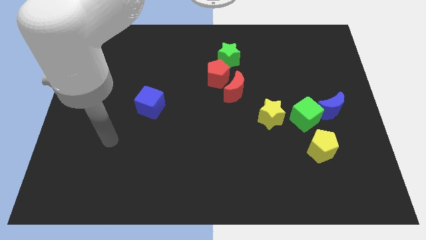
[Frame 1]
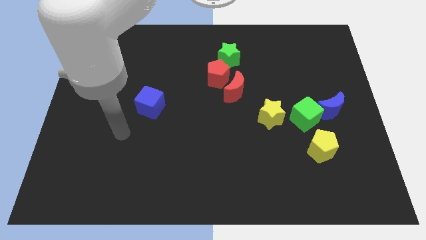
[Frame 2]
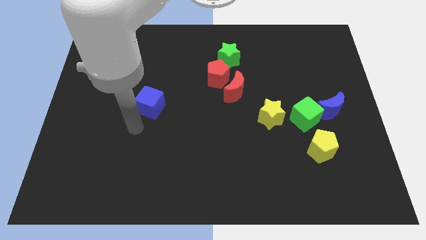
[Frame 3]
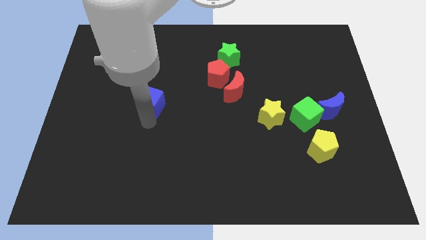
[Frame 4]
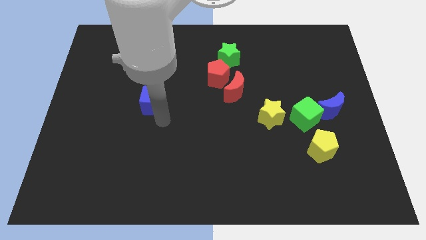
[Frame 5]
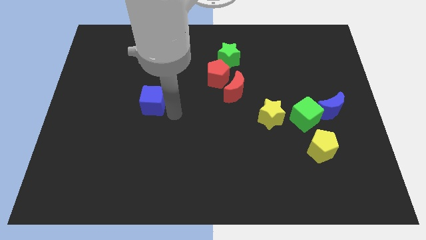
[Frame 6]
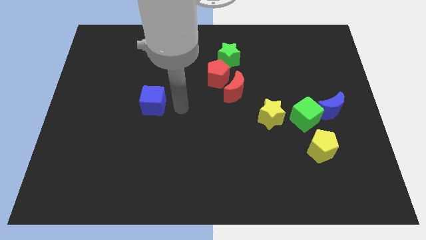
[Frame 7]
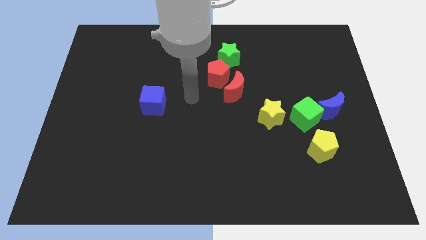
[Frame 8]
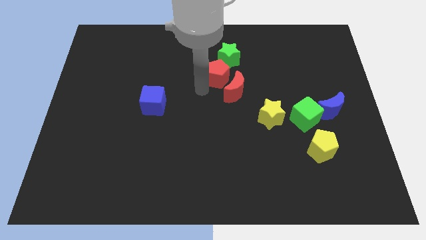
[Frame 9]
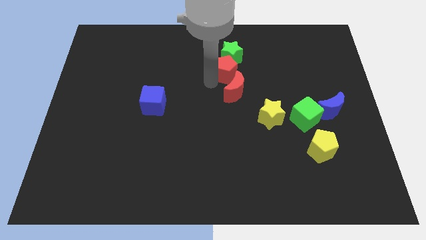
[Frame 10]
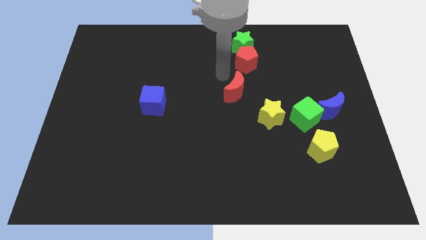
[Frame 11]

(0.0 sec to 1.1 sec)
separate the red moon from the red pentagon

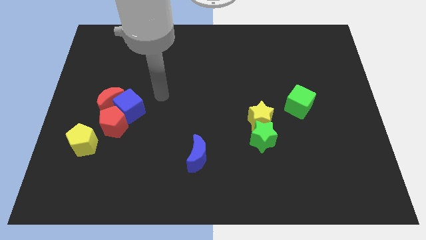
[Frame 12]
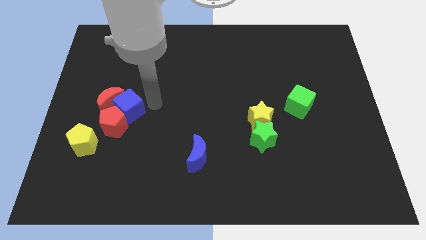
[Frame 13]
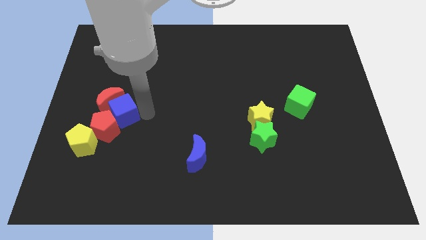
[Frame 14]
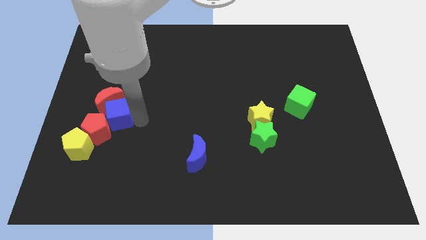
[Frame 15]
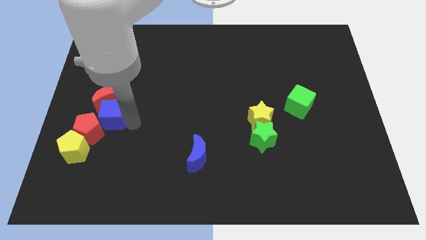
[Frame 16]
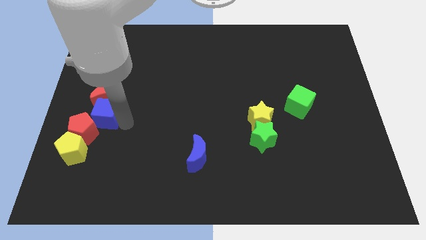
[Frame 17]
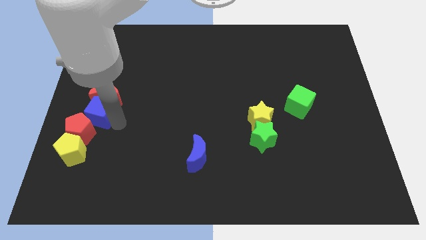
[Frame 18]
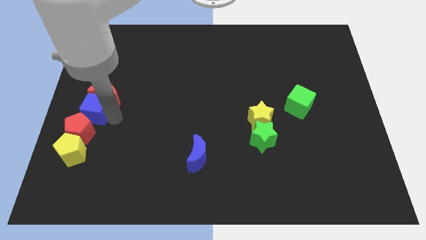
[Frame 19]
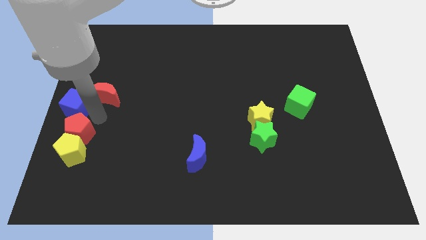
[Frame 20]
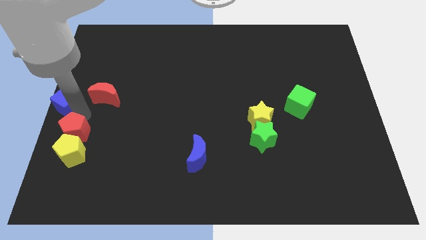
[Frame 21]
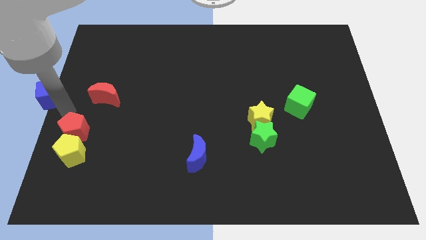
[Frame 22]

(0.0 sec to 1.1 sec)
move the blue cube away from the red moon and red pentagon

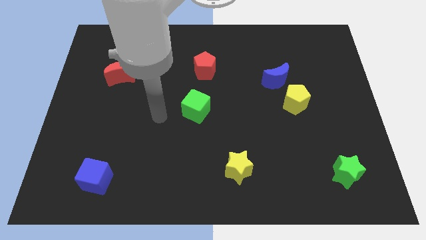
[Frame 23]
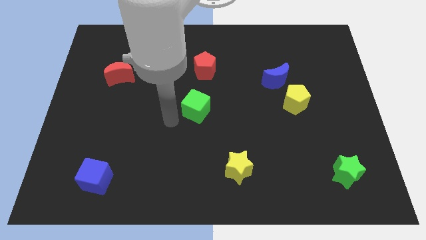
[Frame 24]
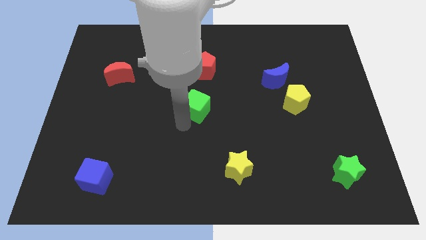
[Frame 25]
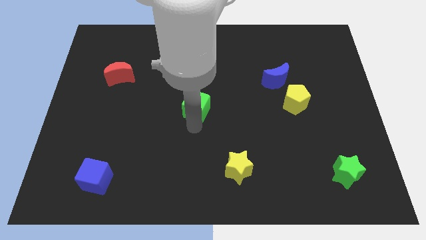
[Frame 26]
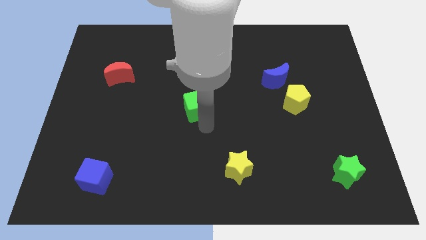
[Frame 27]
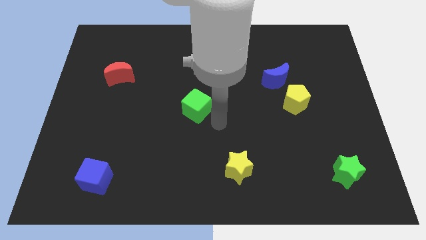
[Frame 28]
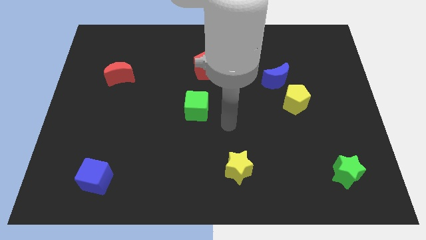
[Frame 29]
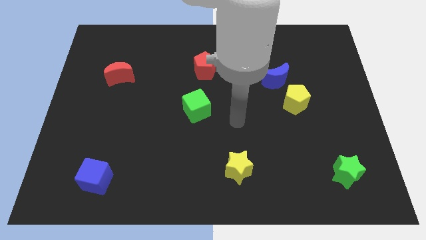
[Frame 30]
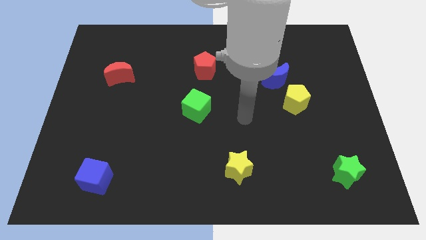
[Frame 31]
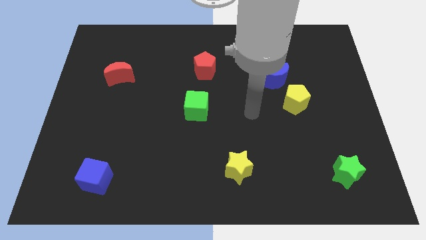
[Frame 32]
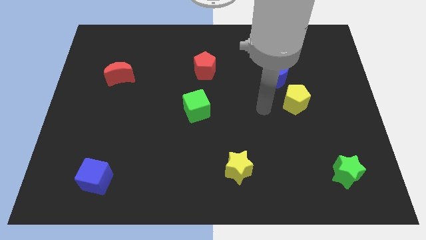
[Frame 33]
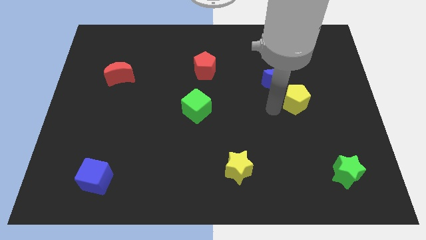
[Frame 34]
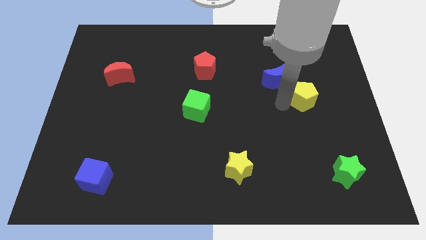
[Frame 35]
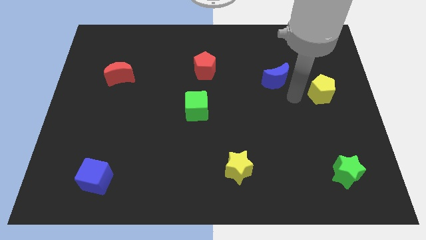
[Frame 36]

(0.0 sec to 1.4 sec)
move the blue moon away from the yellow pentagon

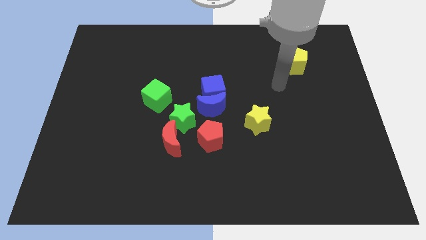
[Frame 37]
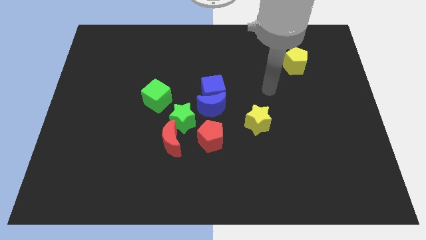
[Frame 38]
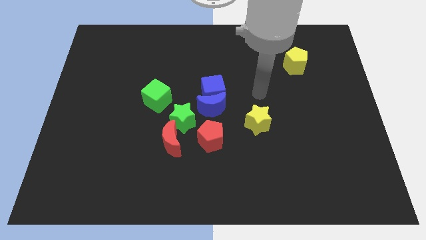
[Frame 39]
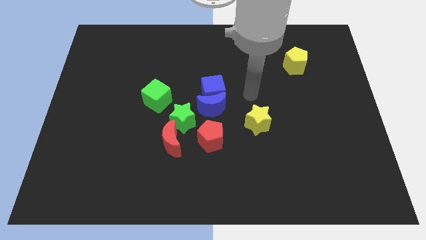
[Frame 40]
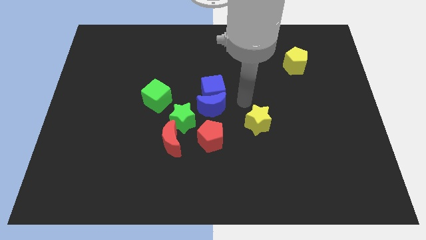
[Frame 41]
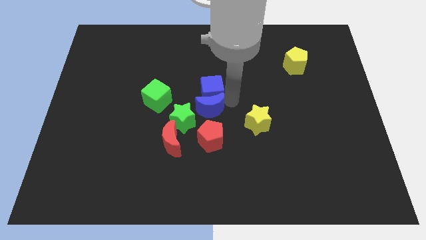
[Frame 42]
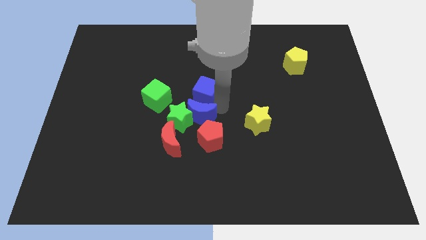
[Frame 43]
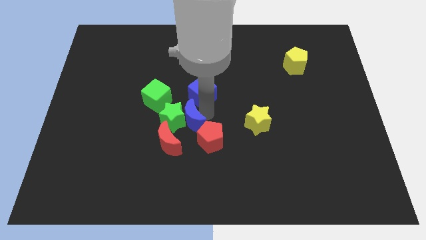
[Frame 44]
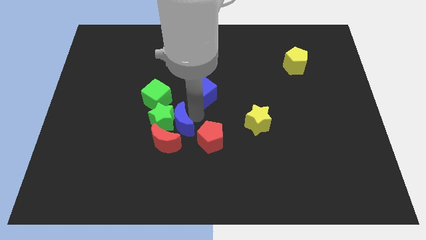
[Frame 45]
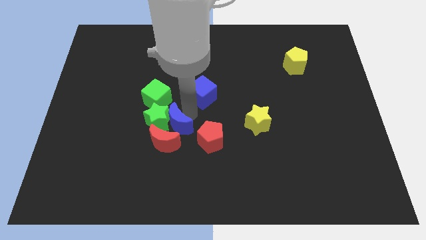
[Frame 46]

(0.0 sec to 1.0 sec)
pull the blue cube apart from the blue moon

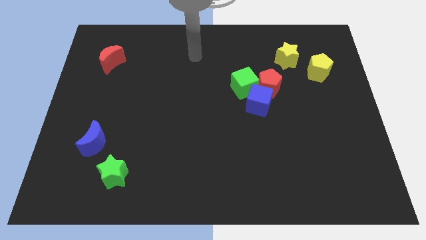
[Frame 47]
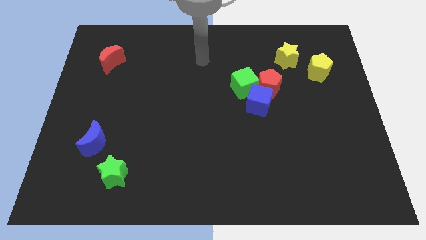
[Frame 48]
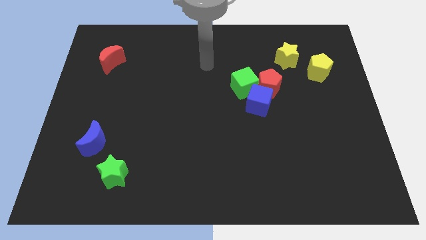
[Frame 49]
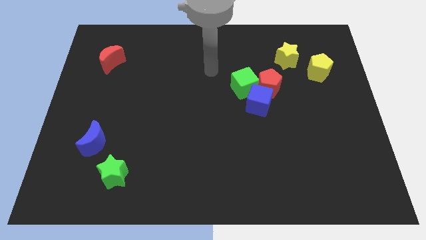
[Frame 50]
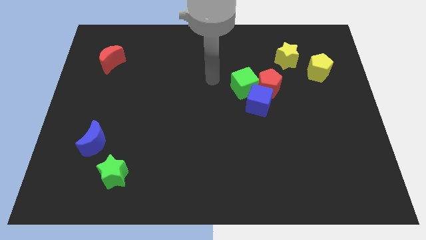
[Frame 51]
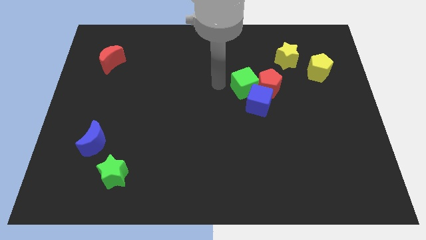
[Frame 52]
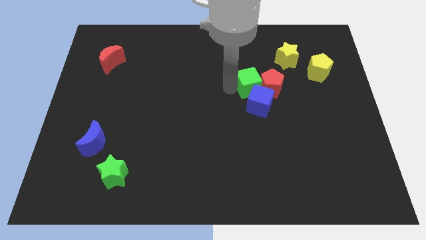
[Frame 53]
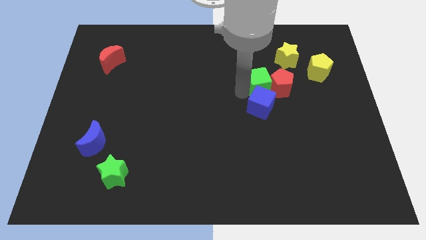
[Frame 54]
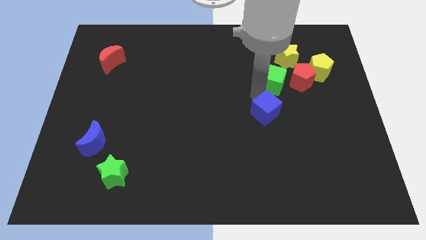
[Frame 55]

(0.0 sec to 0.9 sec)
pull the red pentagon apart from the blue cube and green cube

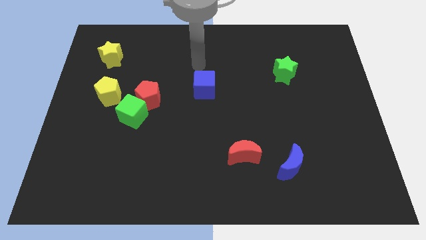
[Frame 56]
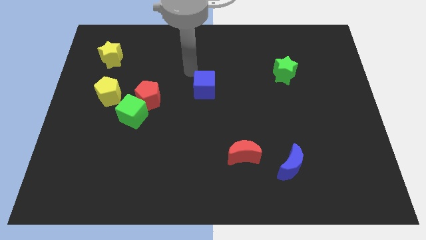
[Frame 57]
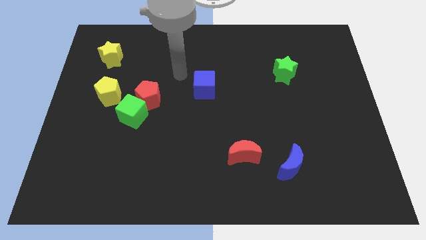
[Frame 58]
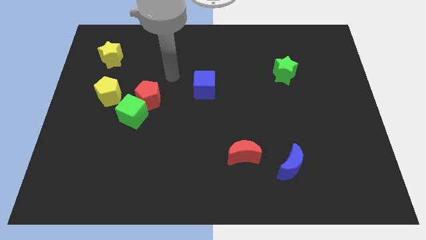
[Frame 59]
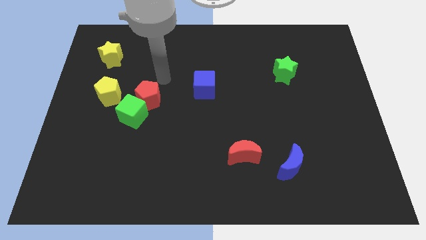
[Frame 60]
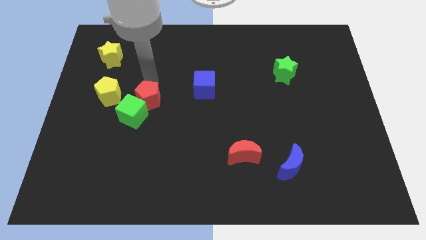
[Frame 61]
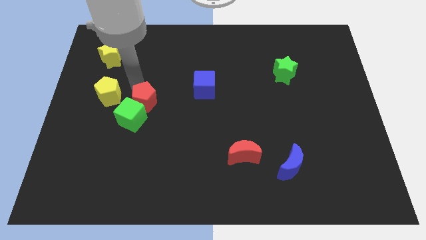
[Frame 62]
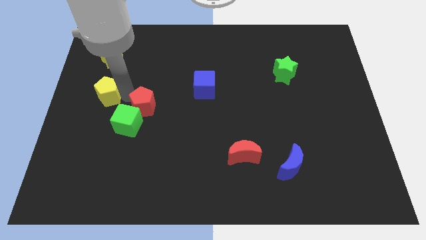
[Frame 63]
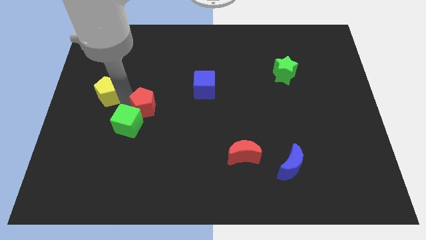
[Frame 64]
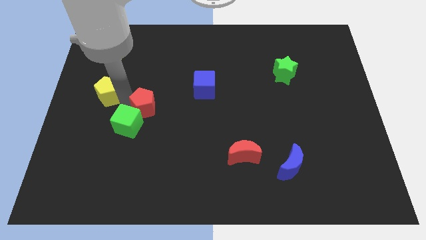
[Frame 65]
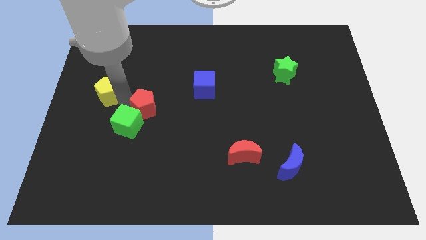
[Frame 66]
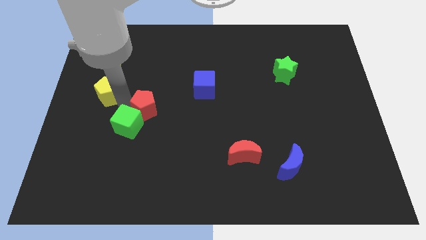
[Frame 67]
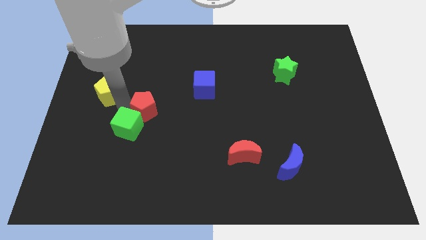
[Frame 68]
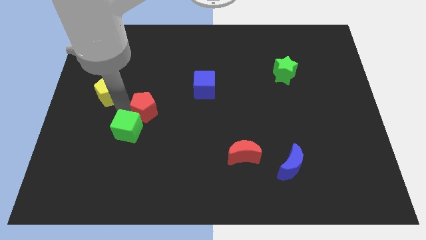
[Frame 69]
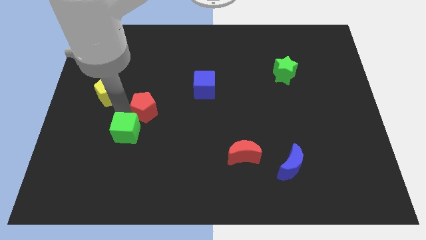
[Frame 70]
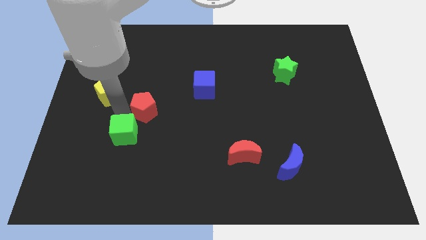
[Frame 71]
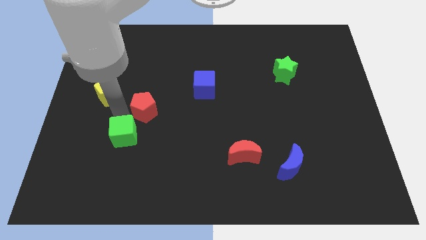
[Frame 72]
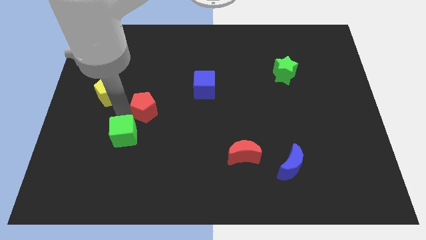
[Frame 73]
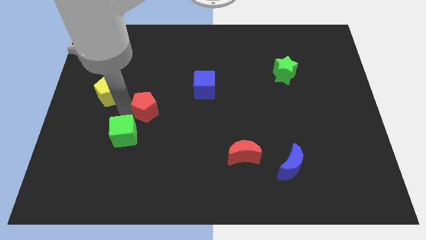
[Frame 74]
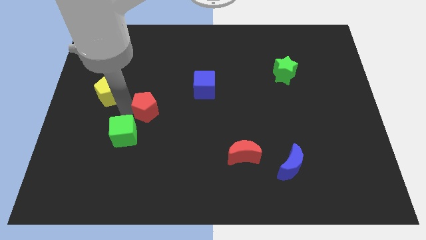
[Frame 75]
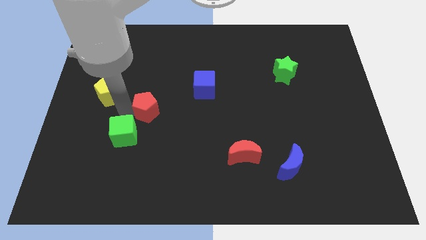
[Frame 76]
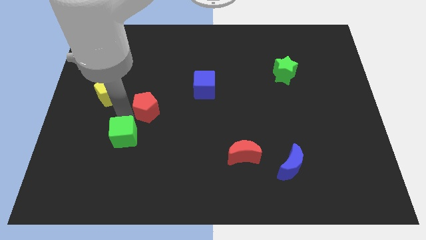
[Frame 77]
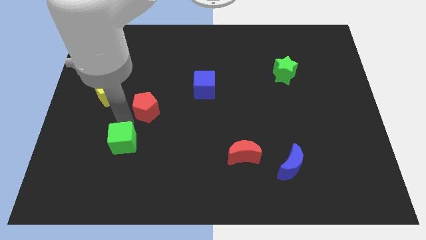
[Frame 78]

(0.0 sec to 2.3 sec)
pull the green cube apart from the red pentagon and yellow pentagon

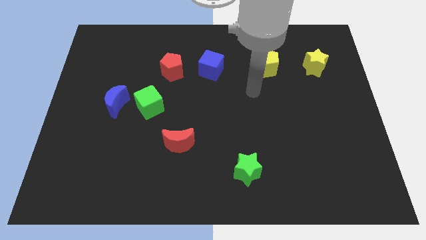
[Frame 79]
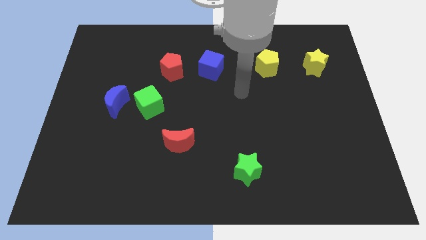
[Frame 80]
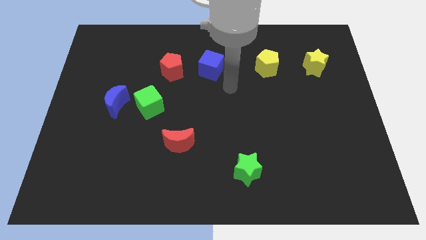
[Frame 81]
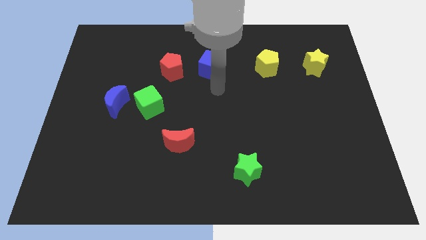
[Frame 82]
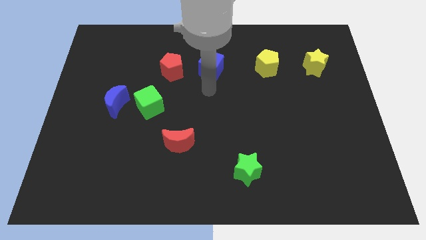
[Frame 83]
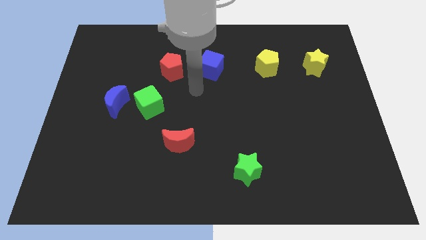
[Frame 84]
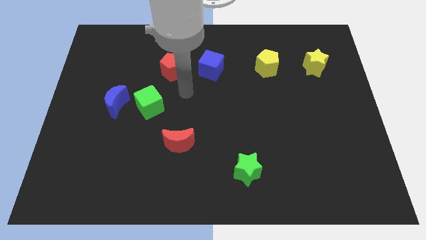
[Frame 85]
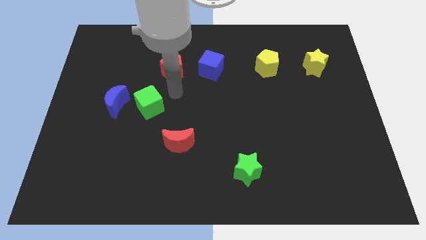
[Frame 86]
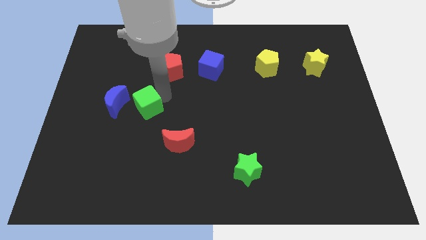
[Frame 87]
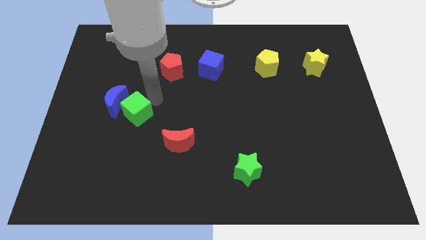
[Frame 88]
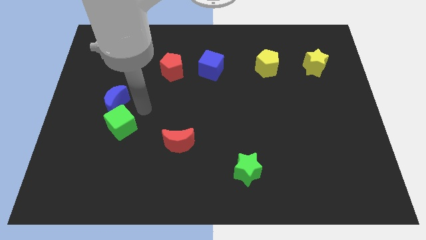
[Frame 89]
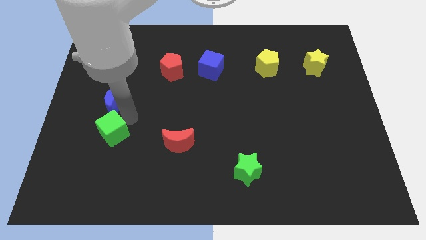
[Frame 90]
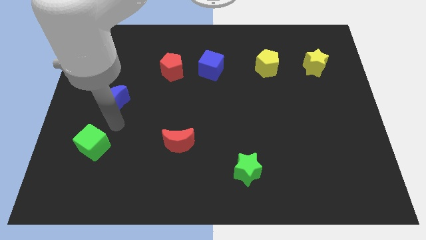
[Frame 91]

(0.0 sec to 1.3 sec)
separate the blue moon from the green cube

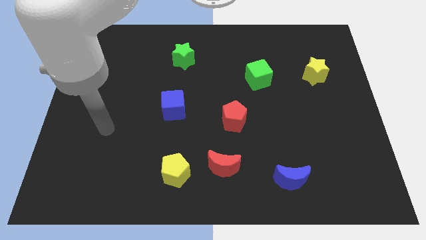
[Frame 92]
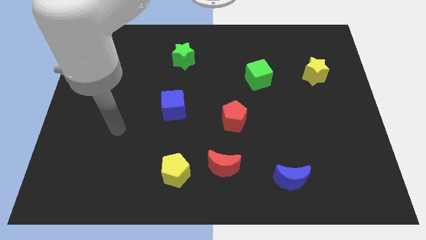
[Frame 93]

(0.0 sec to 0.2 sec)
pull the red moon apart from the yellow pentagon
